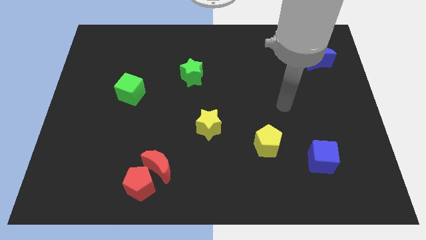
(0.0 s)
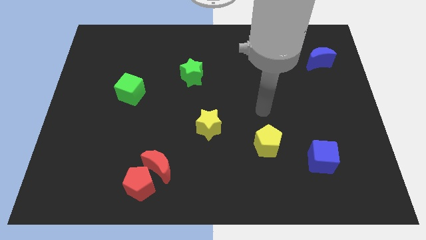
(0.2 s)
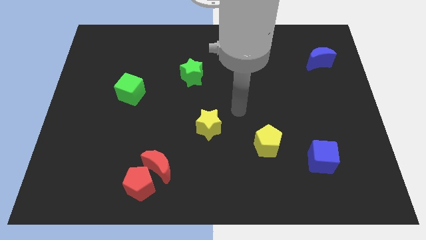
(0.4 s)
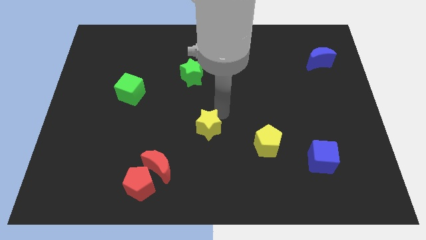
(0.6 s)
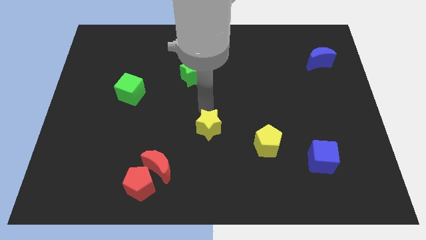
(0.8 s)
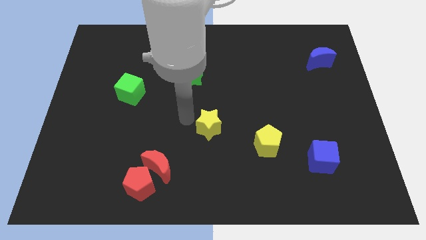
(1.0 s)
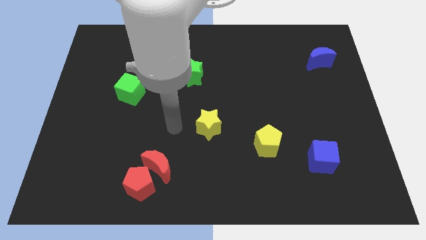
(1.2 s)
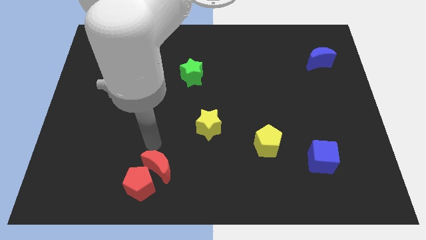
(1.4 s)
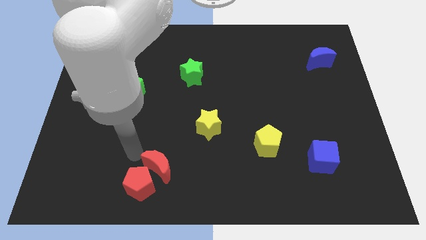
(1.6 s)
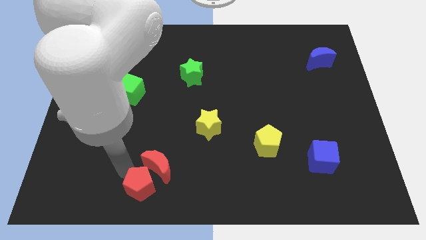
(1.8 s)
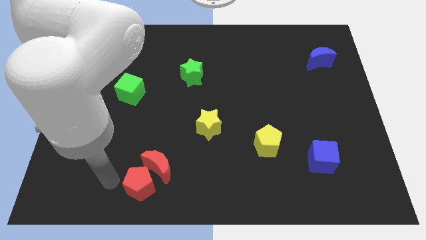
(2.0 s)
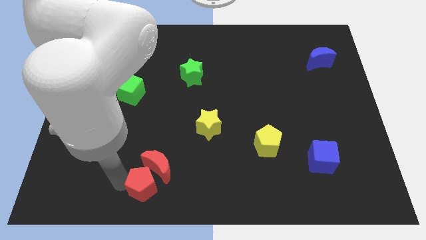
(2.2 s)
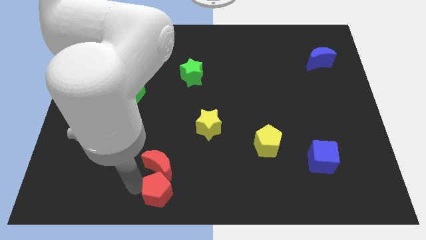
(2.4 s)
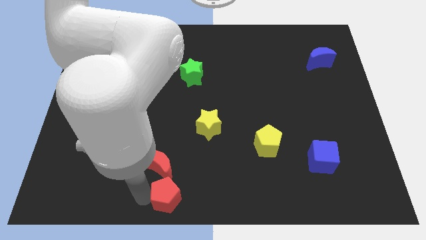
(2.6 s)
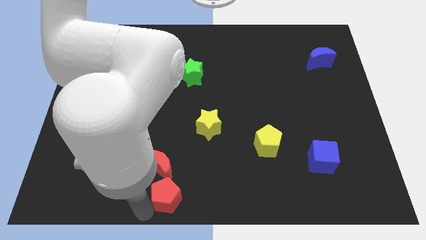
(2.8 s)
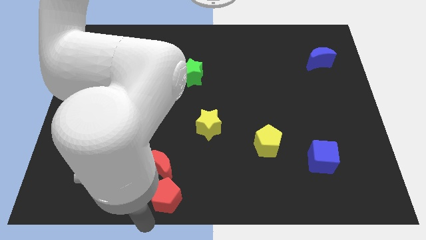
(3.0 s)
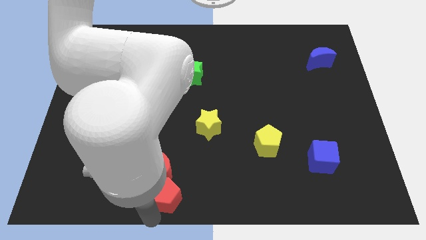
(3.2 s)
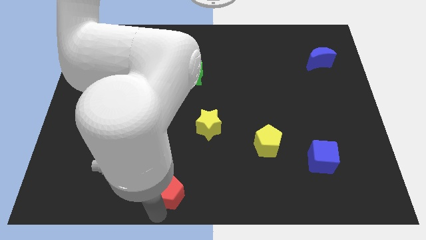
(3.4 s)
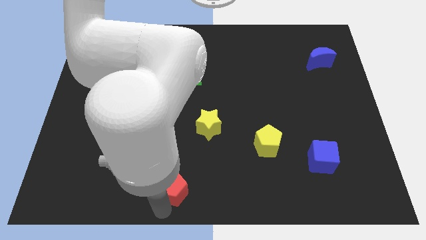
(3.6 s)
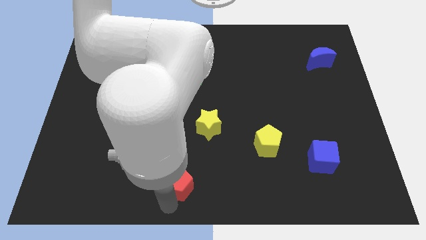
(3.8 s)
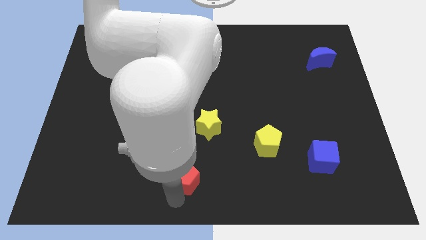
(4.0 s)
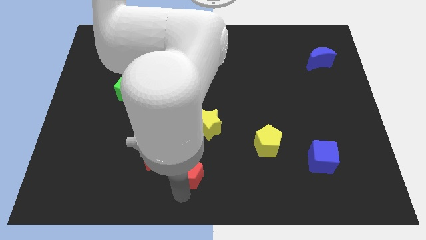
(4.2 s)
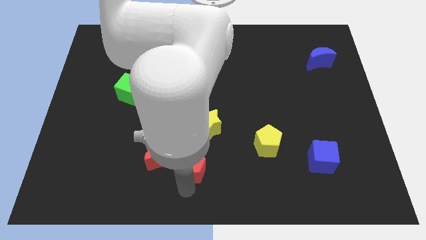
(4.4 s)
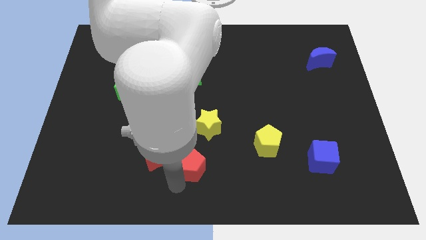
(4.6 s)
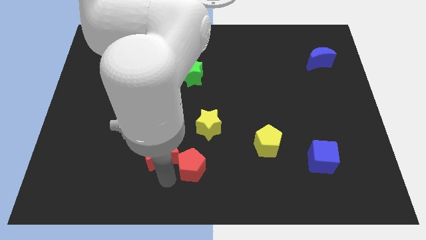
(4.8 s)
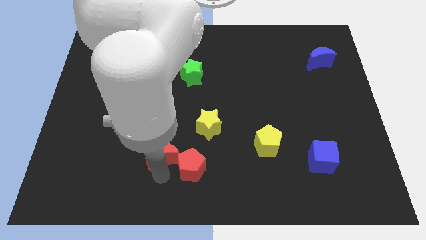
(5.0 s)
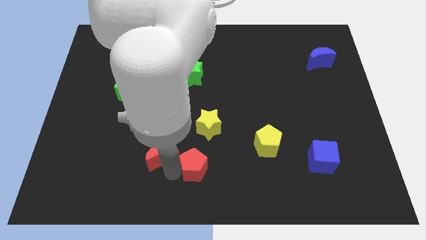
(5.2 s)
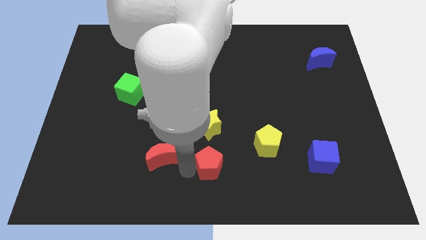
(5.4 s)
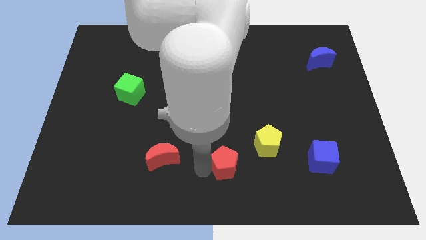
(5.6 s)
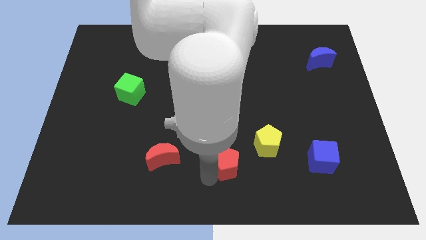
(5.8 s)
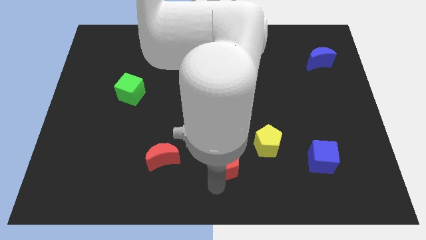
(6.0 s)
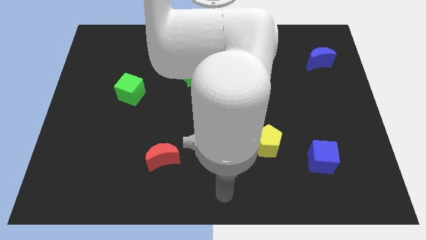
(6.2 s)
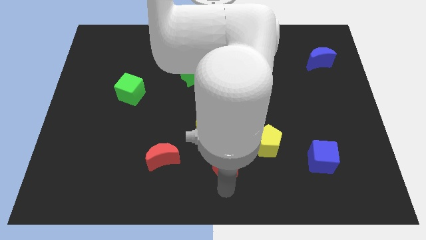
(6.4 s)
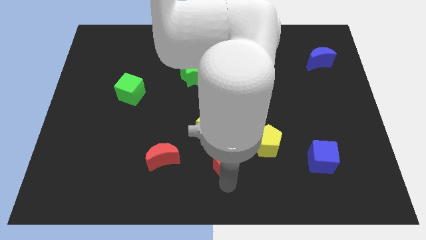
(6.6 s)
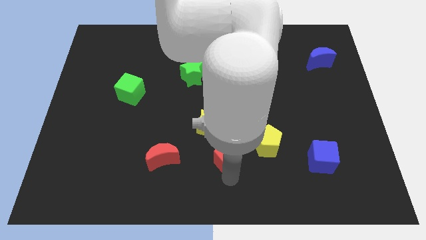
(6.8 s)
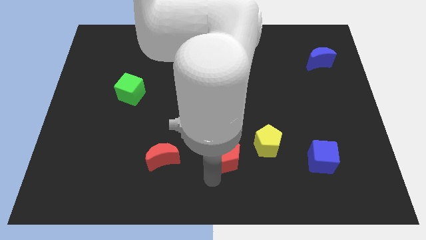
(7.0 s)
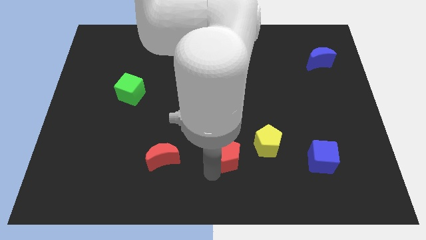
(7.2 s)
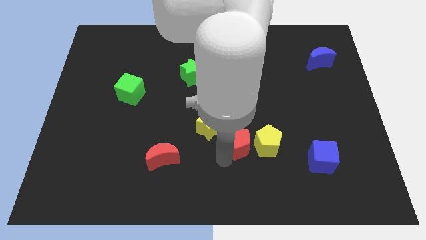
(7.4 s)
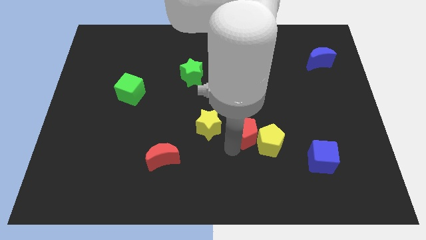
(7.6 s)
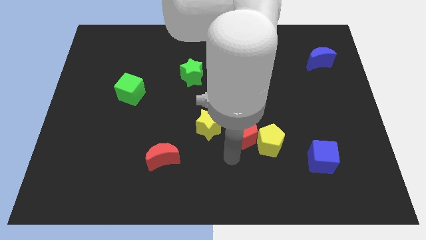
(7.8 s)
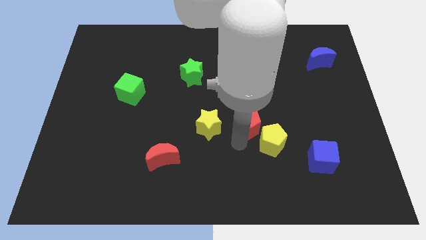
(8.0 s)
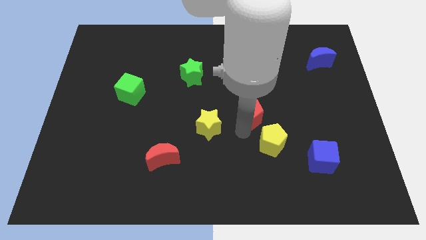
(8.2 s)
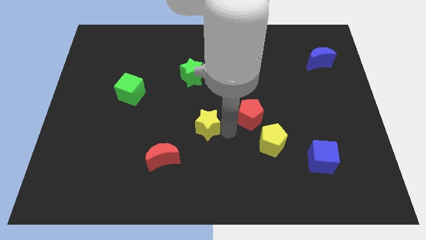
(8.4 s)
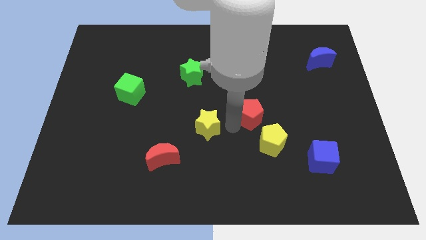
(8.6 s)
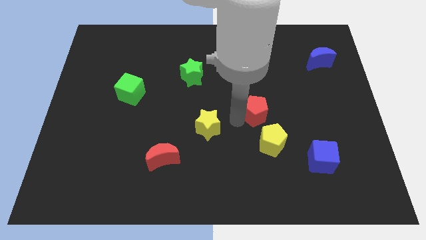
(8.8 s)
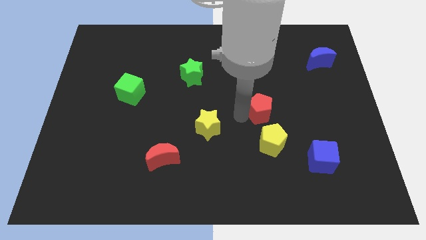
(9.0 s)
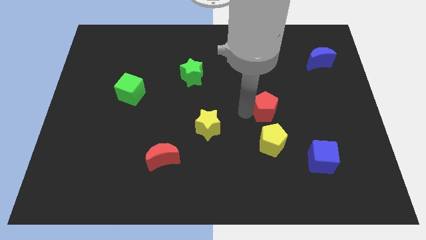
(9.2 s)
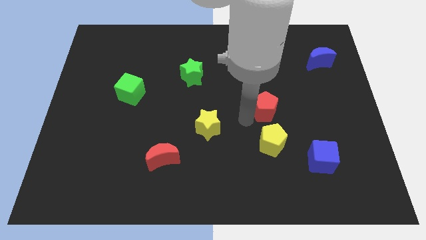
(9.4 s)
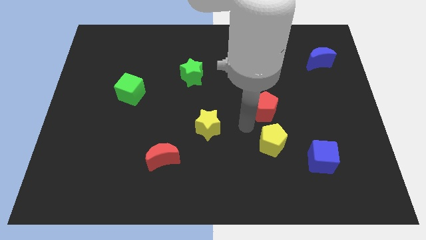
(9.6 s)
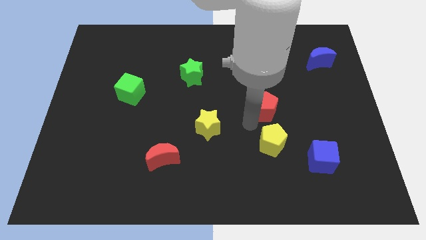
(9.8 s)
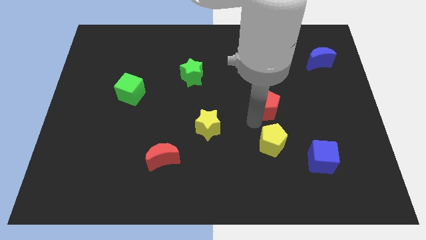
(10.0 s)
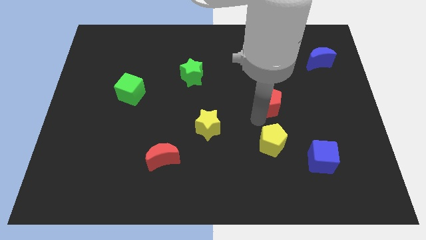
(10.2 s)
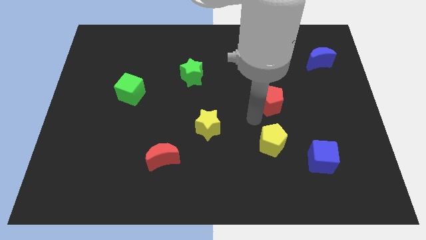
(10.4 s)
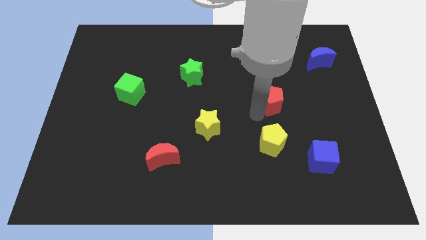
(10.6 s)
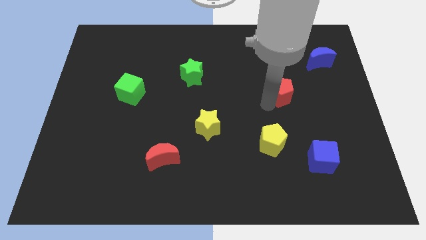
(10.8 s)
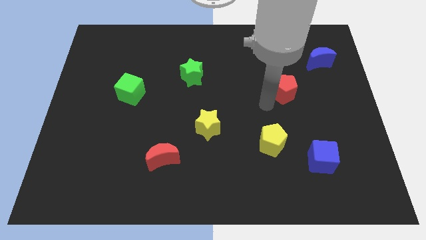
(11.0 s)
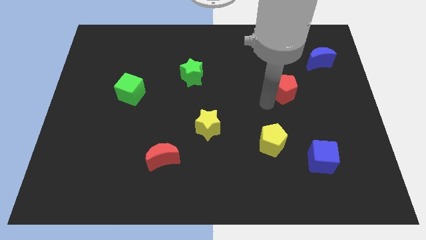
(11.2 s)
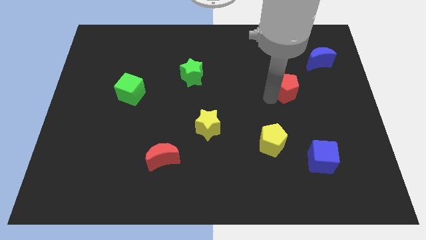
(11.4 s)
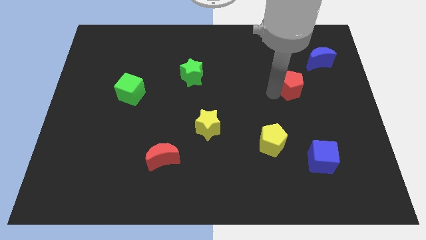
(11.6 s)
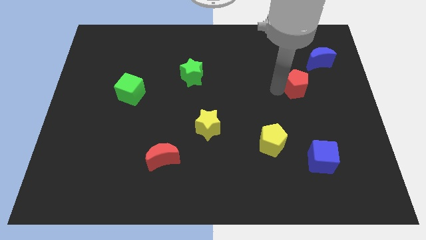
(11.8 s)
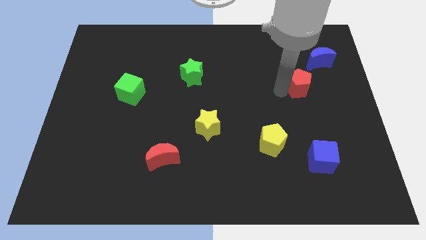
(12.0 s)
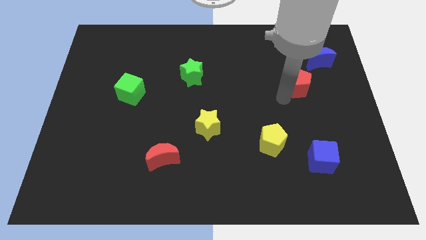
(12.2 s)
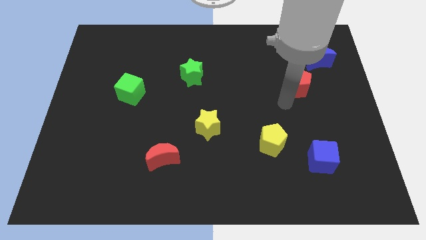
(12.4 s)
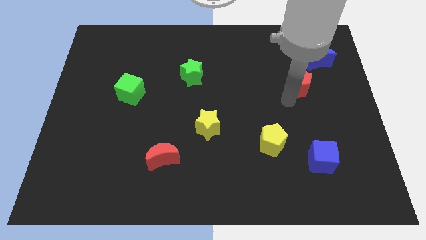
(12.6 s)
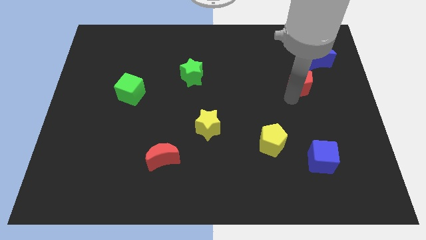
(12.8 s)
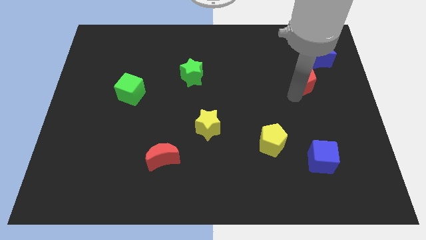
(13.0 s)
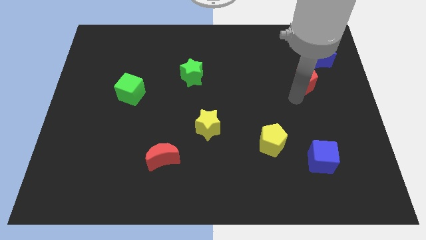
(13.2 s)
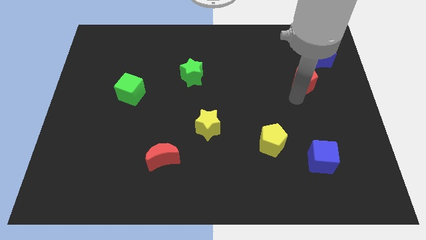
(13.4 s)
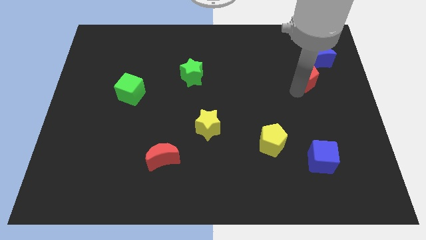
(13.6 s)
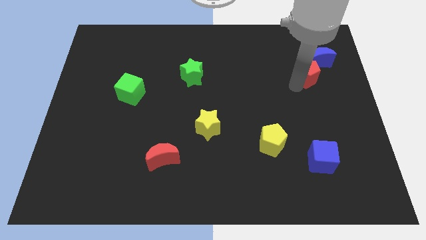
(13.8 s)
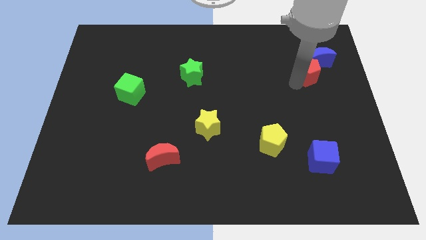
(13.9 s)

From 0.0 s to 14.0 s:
put the red pentagon towards the blue moon

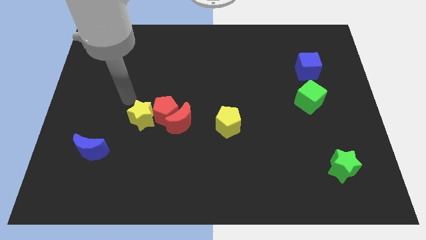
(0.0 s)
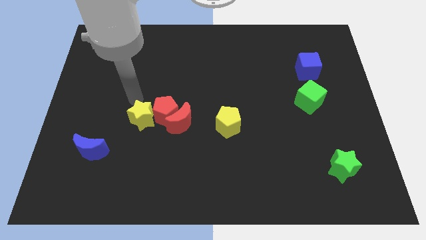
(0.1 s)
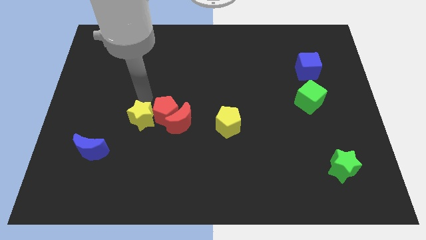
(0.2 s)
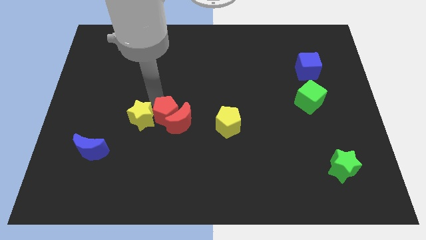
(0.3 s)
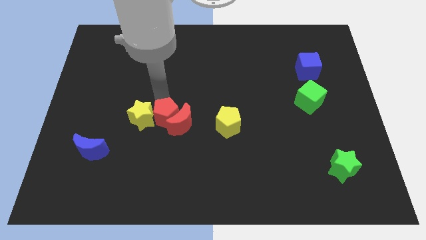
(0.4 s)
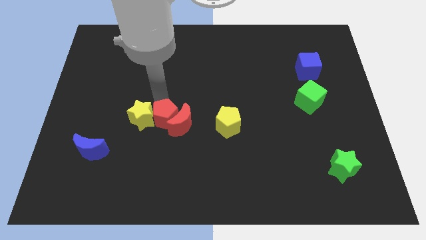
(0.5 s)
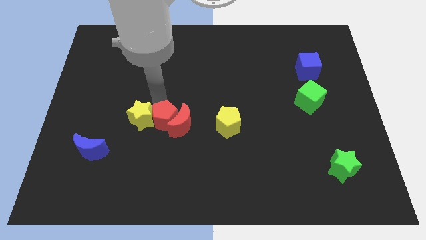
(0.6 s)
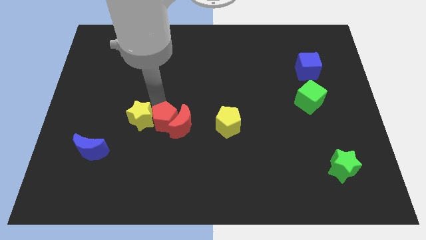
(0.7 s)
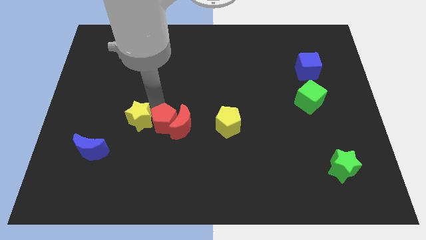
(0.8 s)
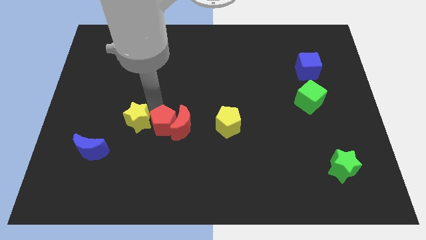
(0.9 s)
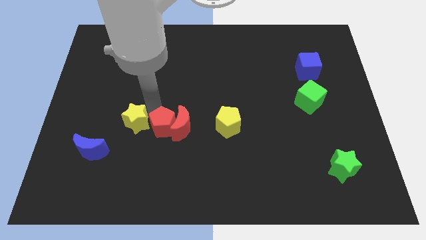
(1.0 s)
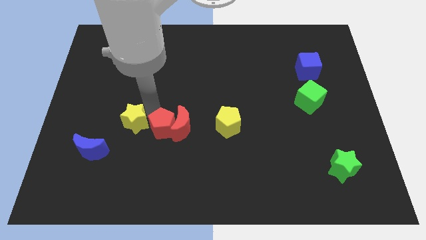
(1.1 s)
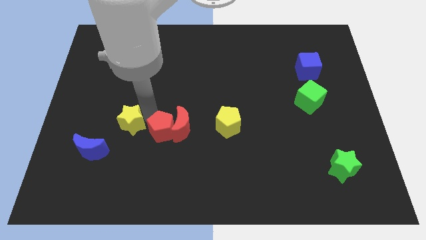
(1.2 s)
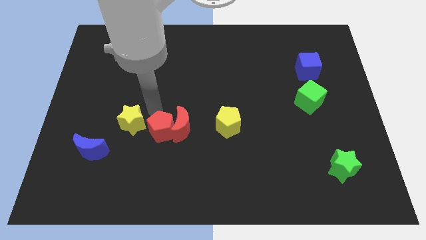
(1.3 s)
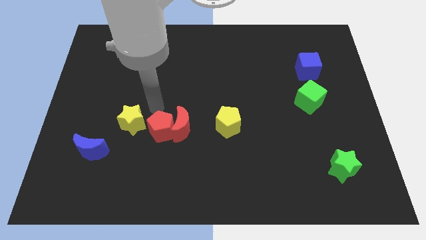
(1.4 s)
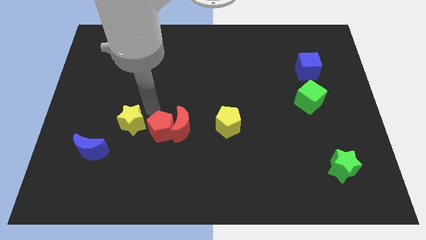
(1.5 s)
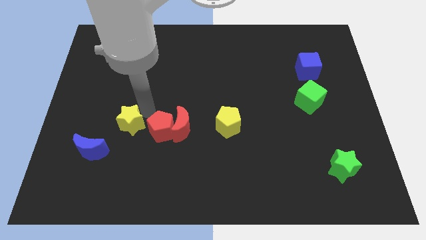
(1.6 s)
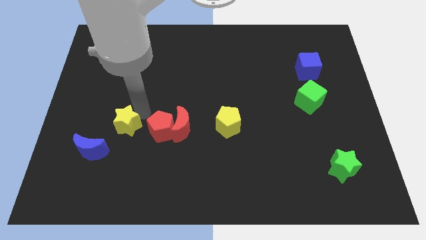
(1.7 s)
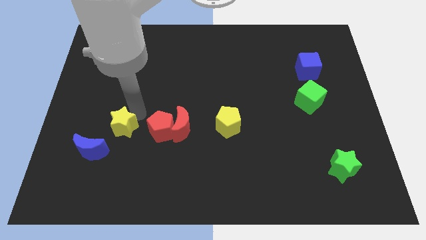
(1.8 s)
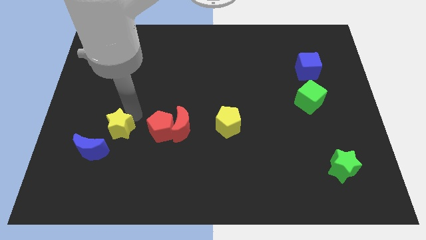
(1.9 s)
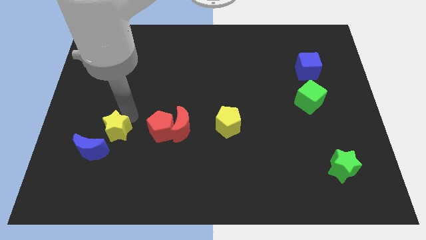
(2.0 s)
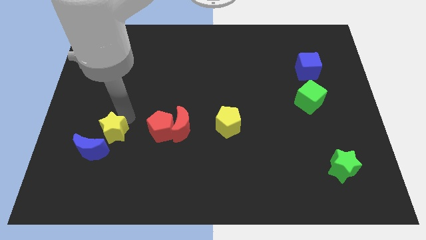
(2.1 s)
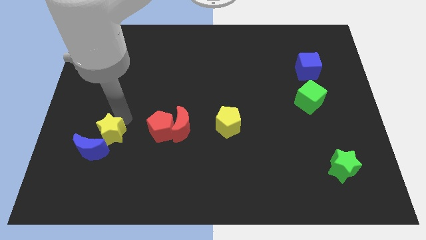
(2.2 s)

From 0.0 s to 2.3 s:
slide the yellow star next to the blue moon
